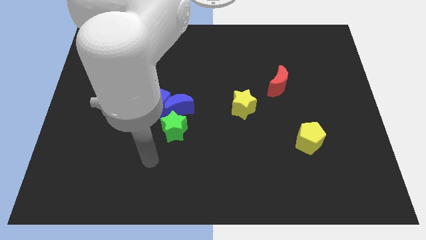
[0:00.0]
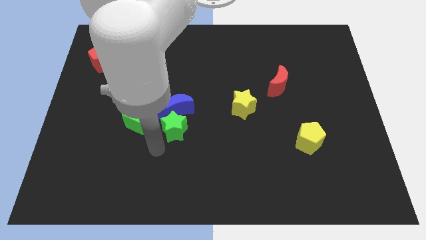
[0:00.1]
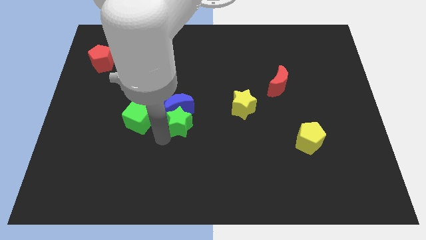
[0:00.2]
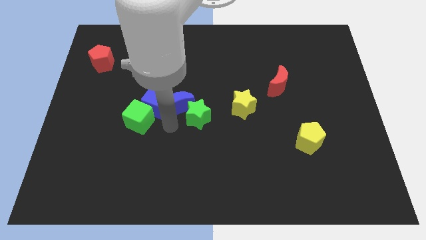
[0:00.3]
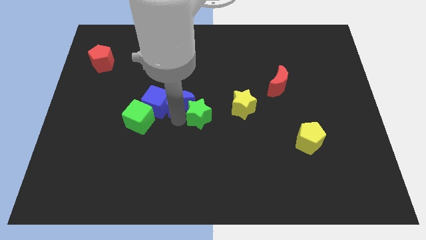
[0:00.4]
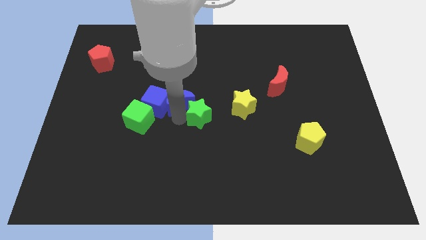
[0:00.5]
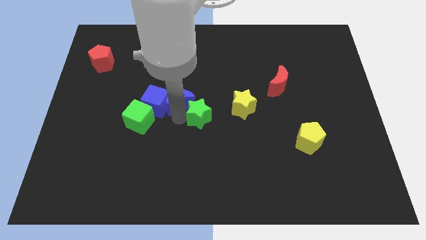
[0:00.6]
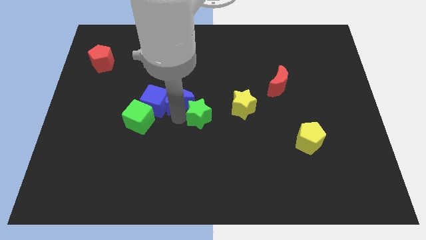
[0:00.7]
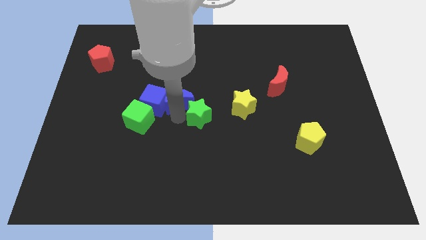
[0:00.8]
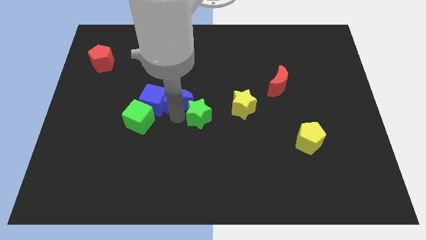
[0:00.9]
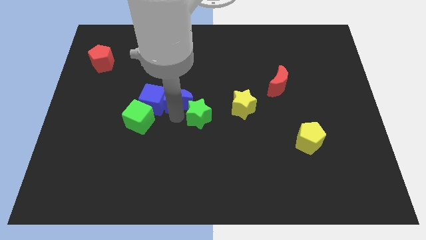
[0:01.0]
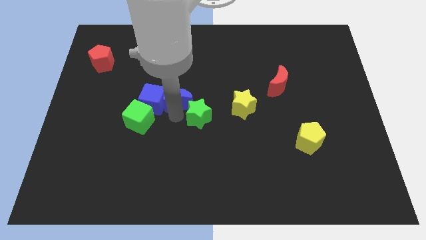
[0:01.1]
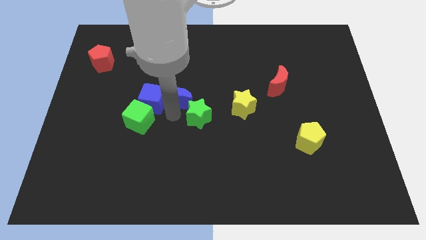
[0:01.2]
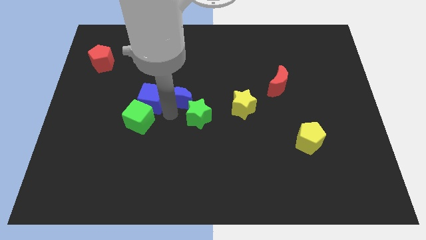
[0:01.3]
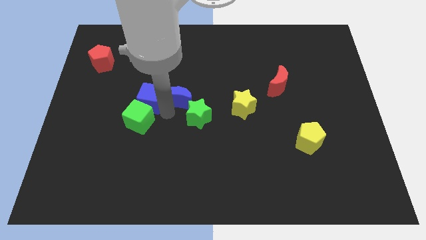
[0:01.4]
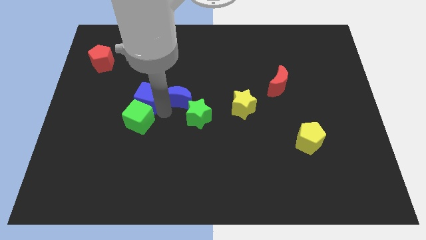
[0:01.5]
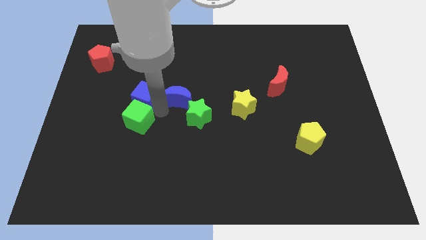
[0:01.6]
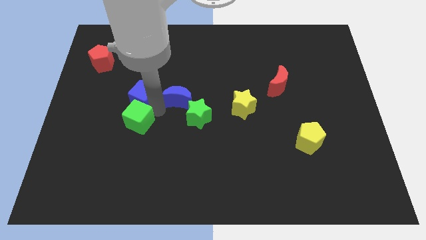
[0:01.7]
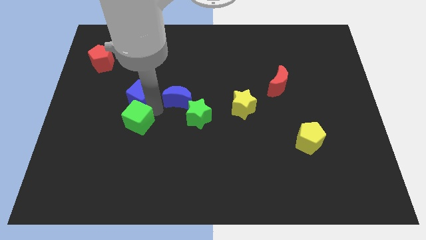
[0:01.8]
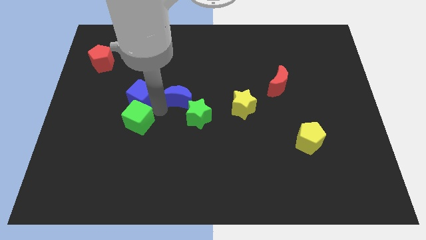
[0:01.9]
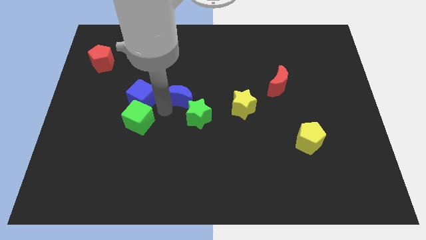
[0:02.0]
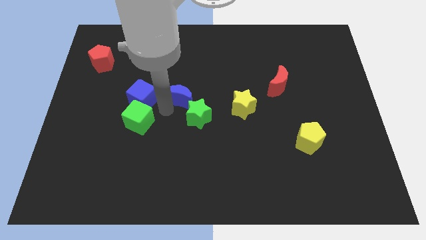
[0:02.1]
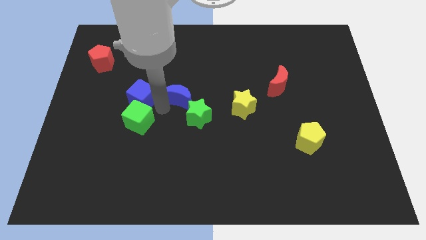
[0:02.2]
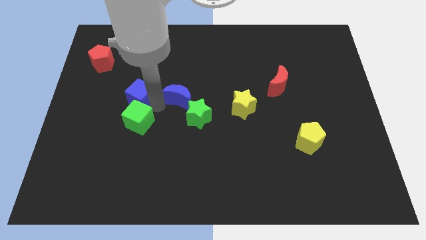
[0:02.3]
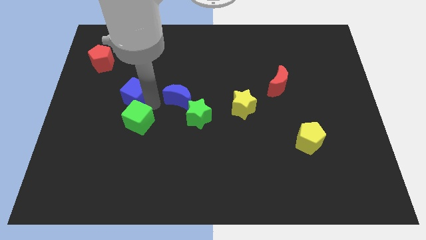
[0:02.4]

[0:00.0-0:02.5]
move the blue cube away from the clump

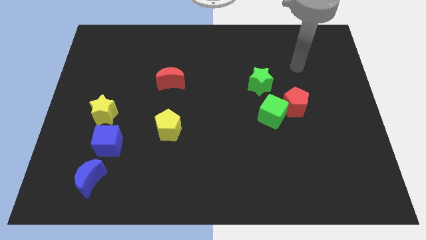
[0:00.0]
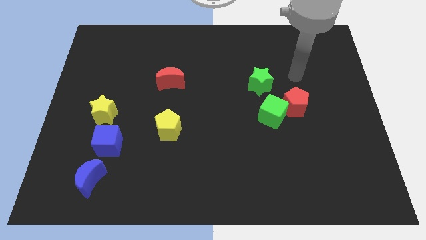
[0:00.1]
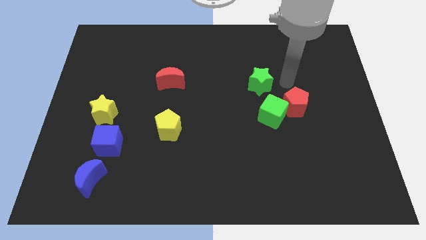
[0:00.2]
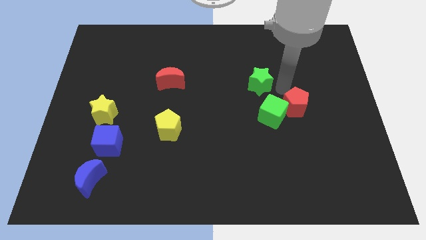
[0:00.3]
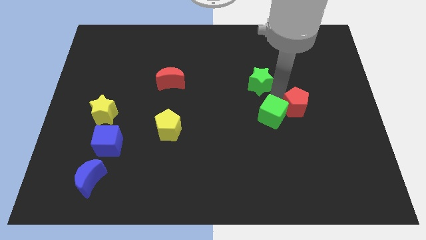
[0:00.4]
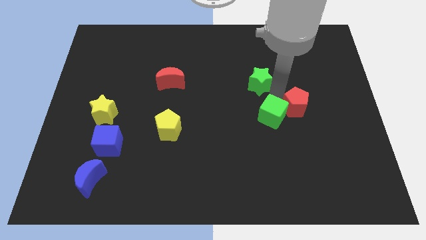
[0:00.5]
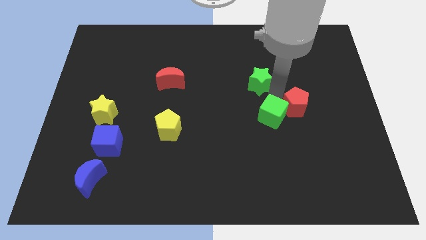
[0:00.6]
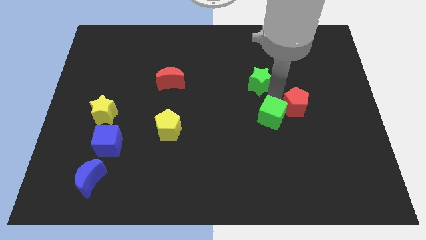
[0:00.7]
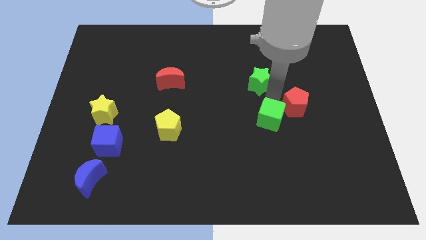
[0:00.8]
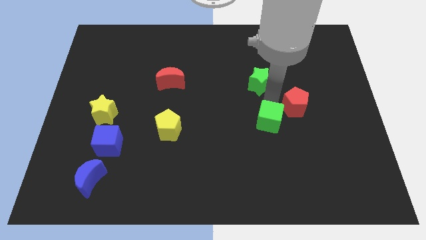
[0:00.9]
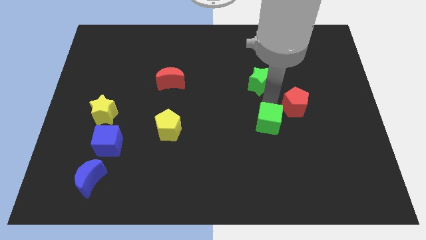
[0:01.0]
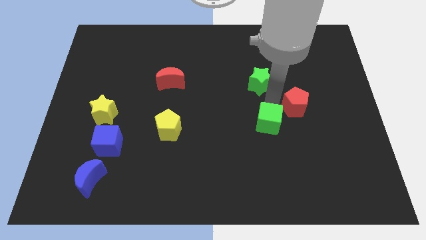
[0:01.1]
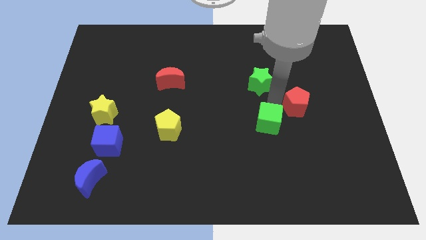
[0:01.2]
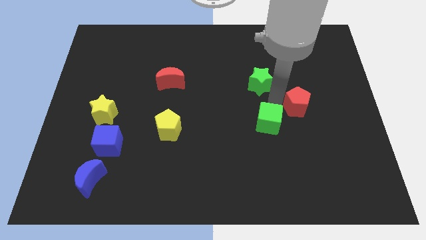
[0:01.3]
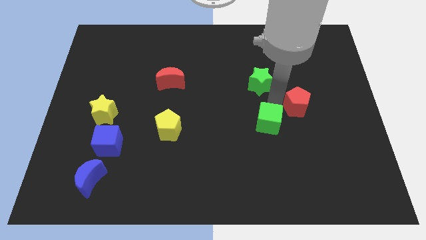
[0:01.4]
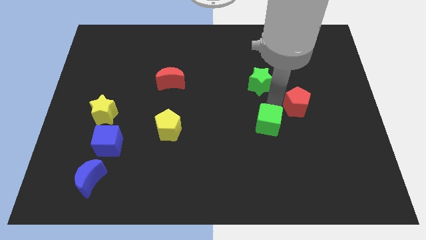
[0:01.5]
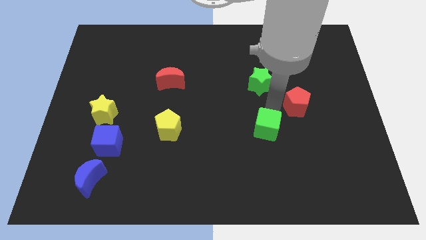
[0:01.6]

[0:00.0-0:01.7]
pull the green cube apart from the red pentagon and green star

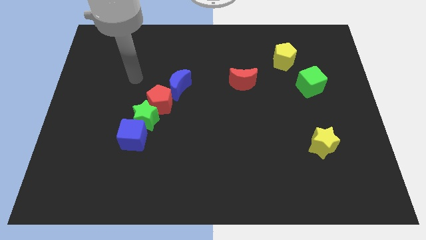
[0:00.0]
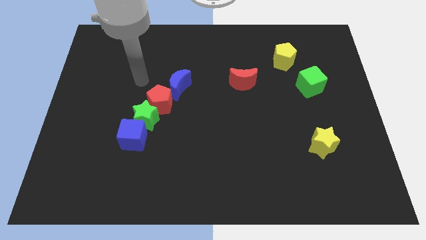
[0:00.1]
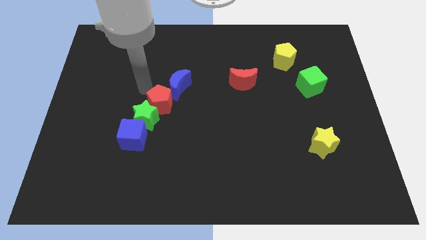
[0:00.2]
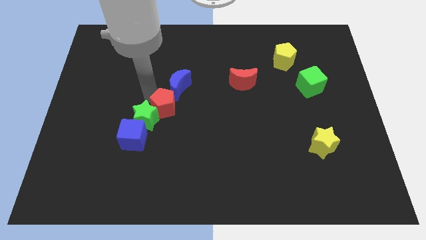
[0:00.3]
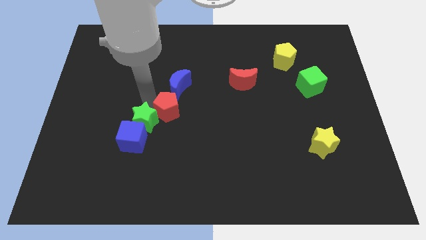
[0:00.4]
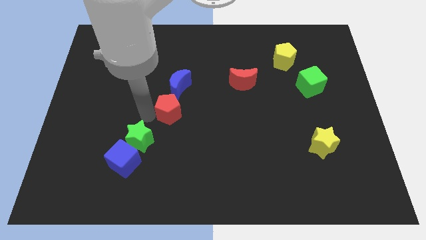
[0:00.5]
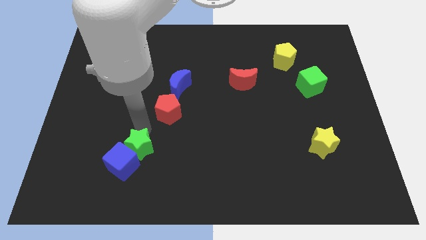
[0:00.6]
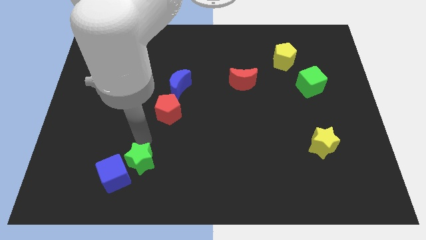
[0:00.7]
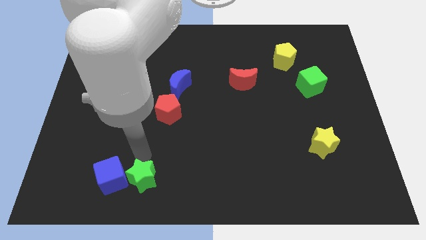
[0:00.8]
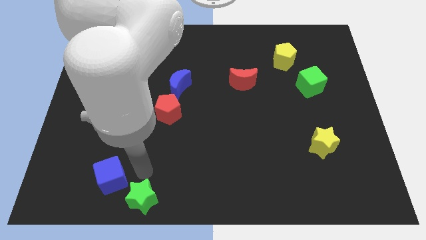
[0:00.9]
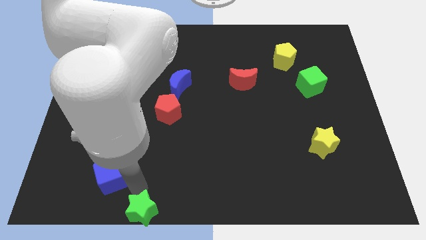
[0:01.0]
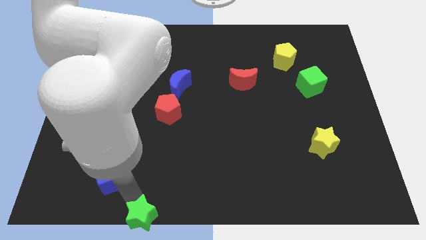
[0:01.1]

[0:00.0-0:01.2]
move the blue cube away from the green star

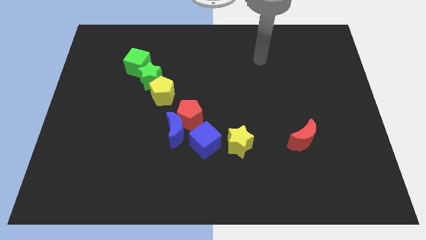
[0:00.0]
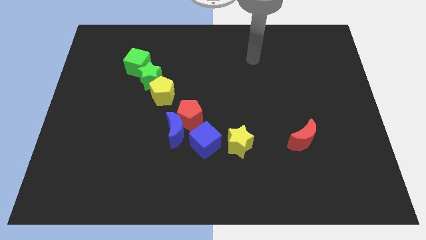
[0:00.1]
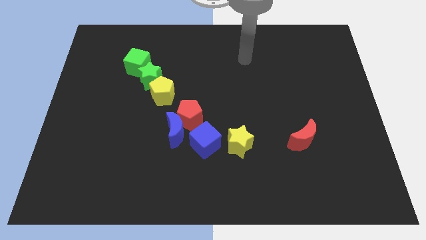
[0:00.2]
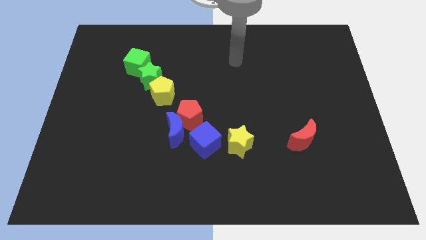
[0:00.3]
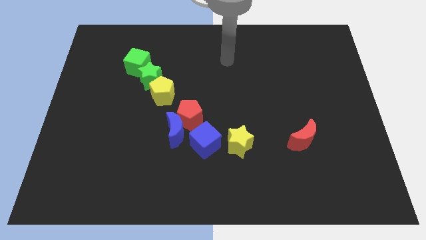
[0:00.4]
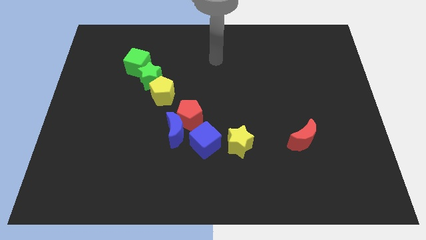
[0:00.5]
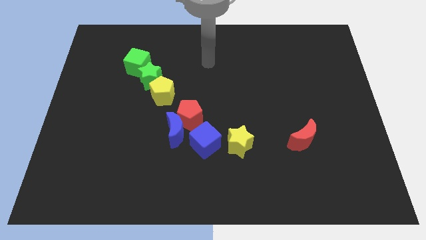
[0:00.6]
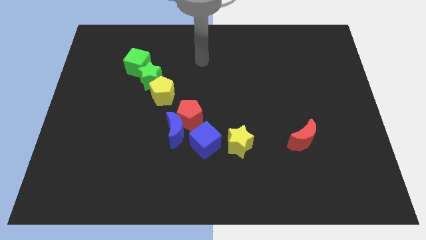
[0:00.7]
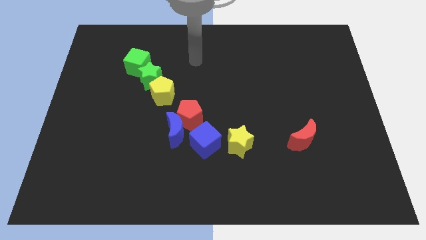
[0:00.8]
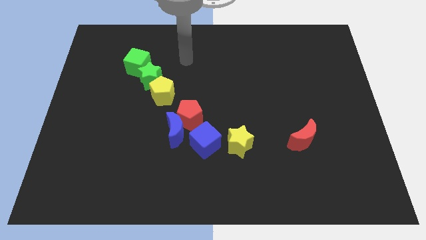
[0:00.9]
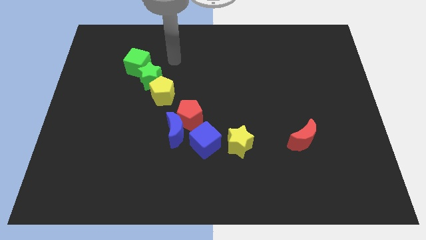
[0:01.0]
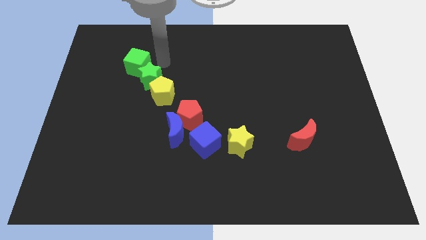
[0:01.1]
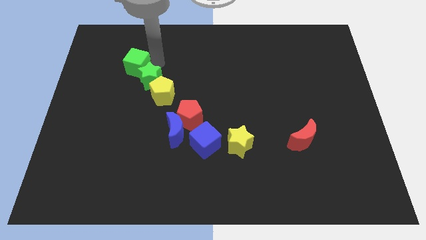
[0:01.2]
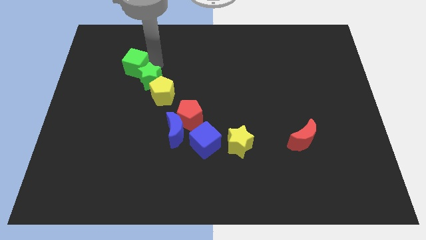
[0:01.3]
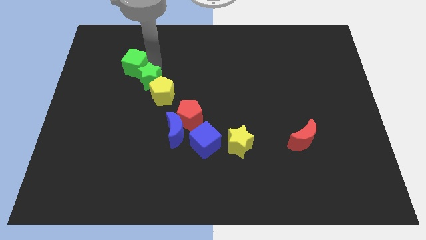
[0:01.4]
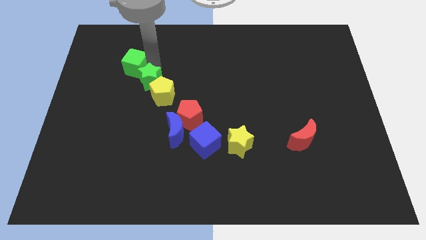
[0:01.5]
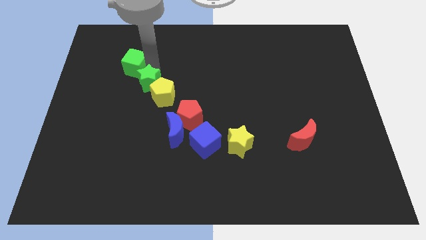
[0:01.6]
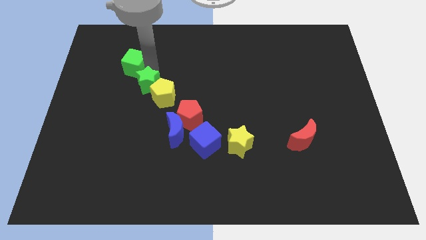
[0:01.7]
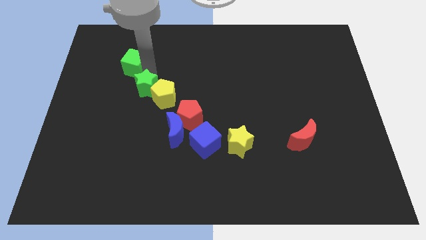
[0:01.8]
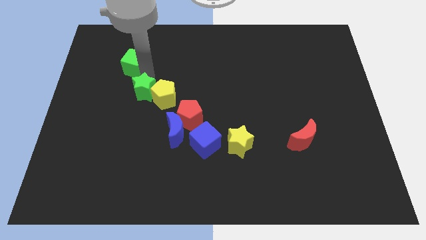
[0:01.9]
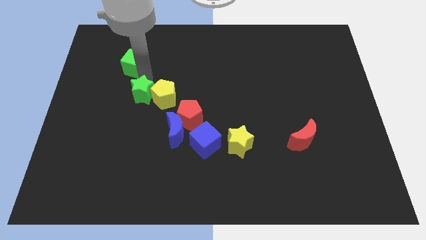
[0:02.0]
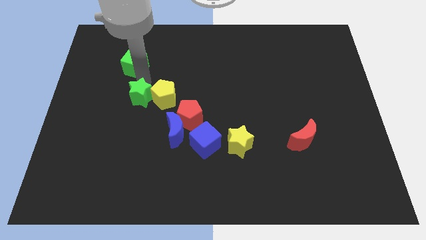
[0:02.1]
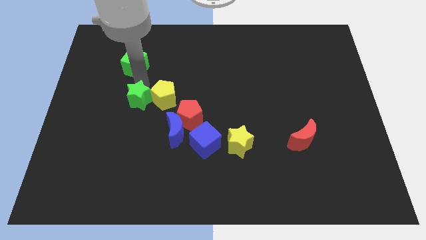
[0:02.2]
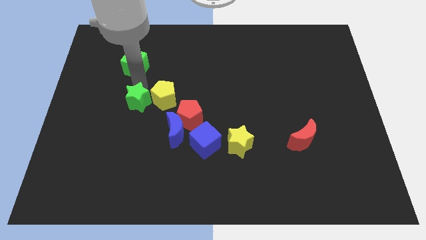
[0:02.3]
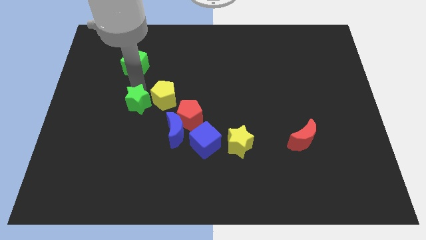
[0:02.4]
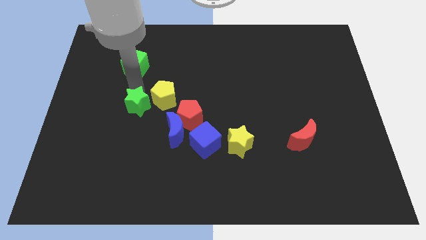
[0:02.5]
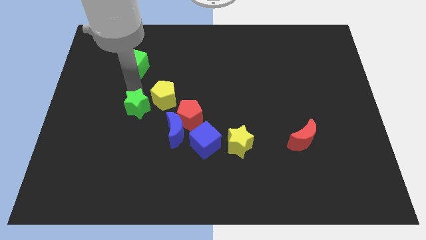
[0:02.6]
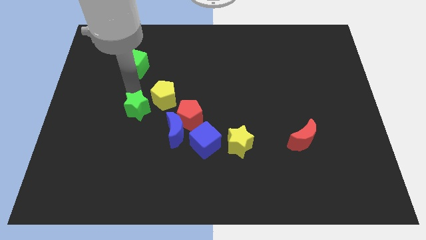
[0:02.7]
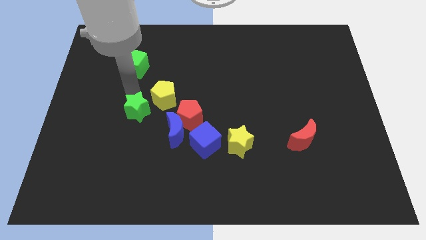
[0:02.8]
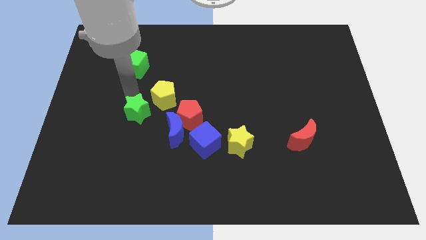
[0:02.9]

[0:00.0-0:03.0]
separate the green star from the yellow pentagon and green cube

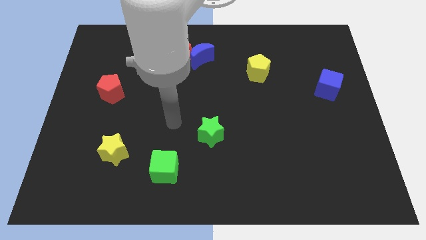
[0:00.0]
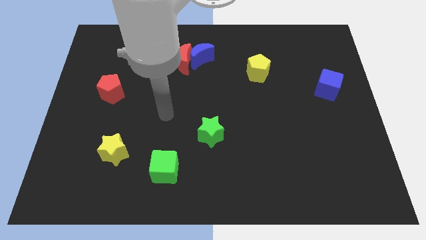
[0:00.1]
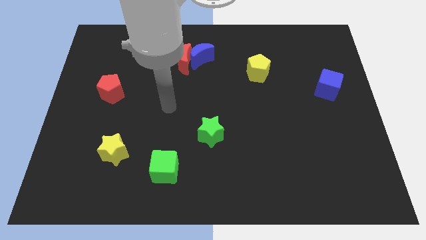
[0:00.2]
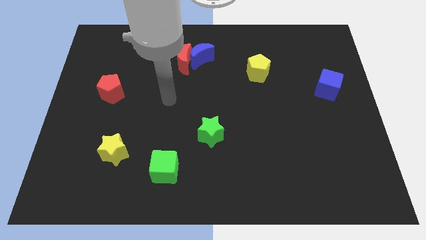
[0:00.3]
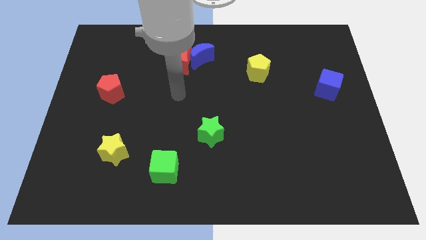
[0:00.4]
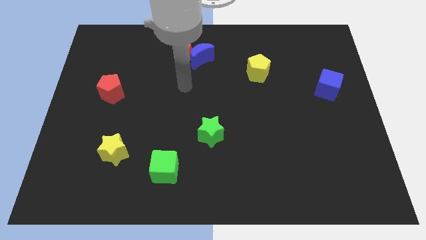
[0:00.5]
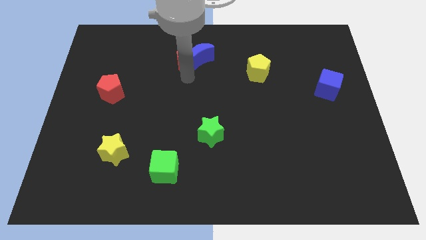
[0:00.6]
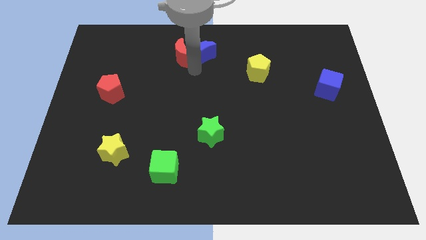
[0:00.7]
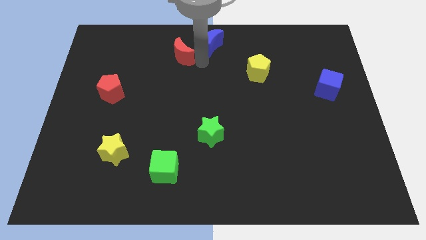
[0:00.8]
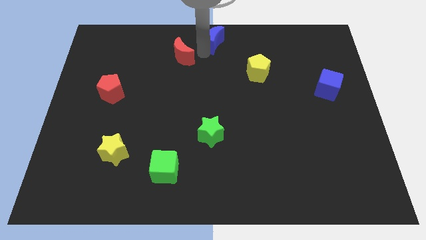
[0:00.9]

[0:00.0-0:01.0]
pull the red moon apart from the blue moon
